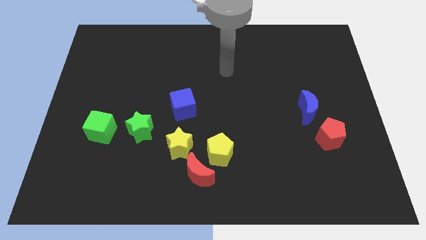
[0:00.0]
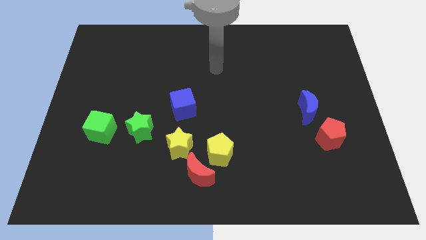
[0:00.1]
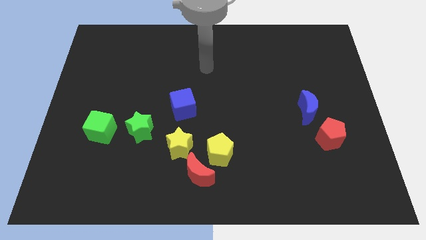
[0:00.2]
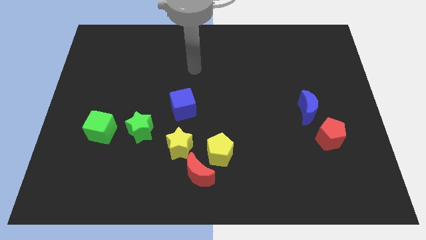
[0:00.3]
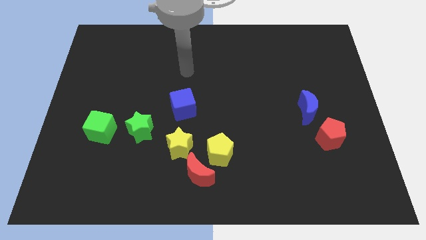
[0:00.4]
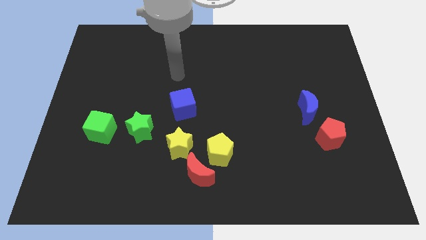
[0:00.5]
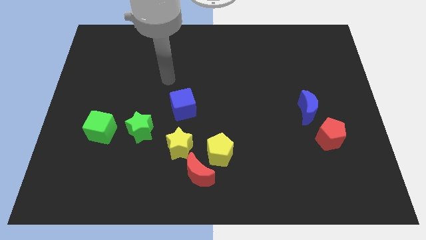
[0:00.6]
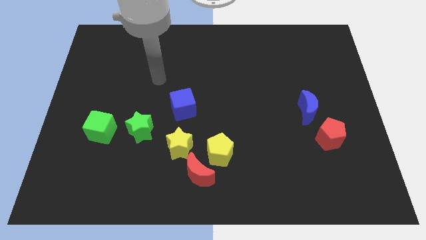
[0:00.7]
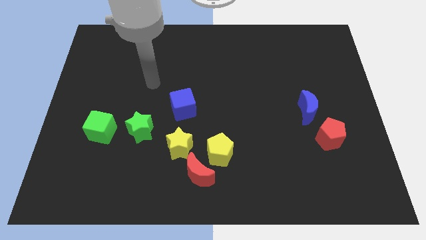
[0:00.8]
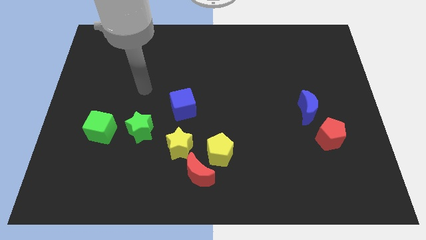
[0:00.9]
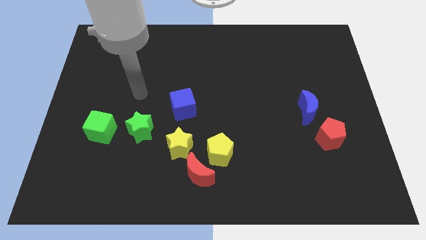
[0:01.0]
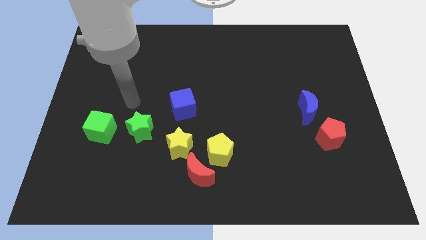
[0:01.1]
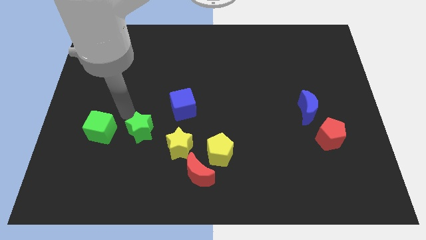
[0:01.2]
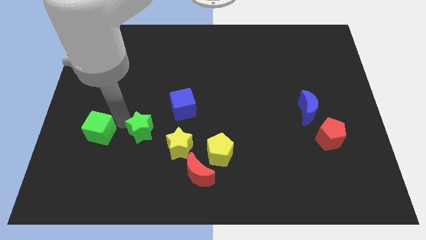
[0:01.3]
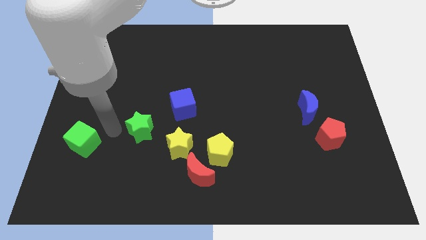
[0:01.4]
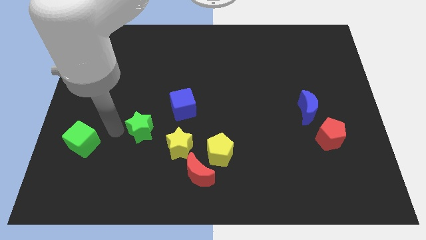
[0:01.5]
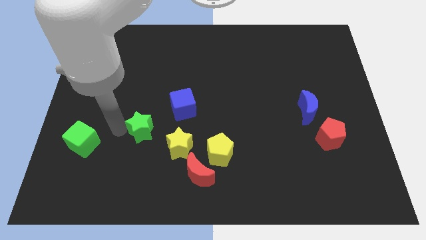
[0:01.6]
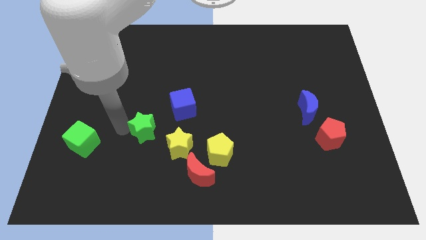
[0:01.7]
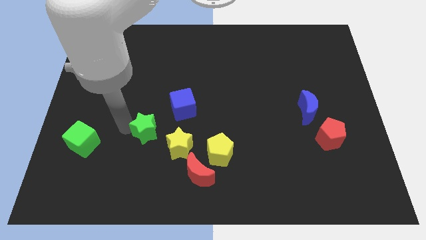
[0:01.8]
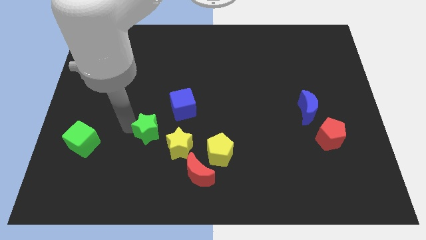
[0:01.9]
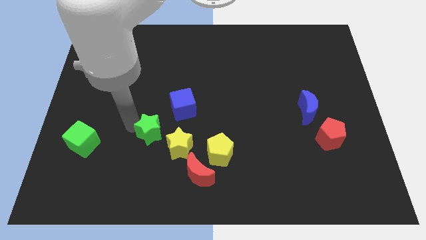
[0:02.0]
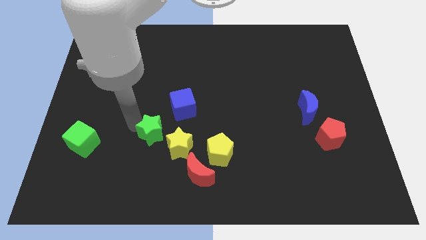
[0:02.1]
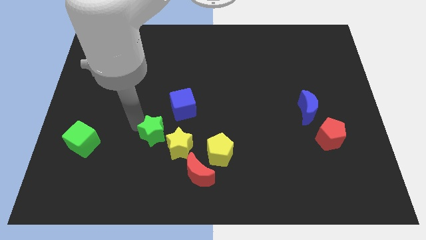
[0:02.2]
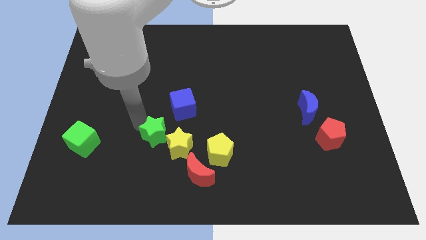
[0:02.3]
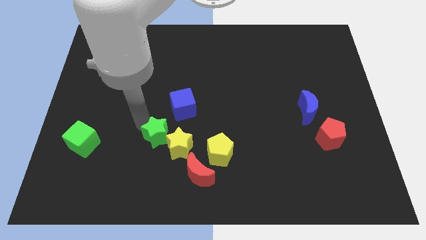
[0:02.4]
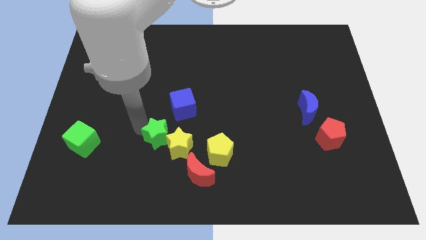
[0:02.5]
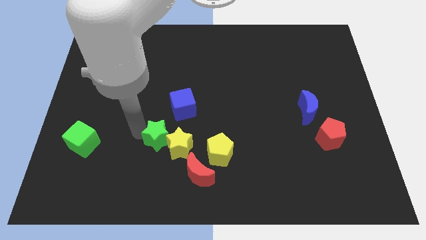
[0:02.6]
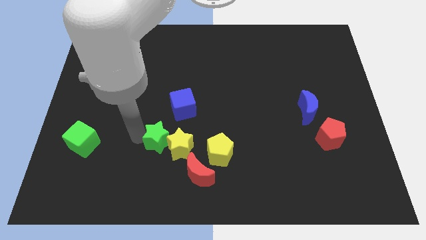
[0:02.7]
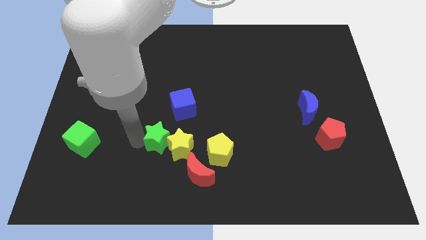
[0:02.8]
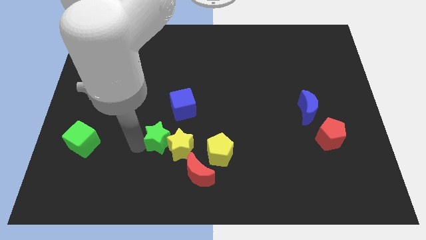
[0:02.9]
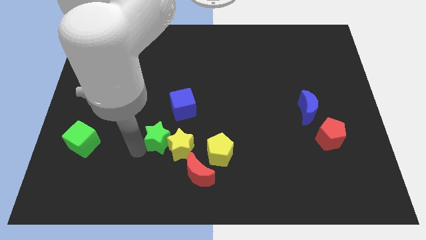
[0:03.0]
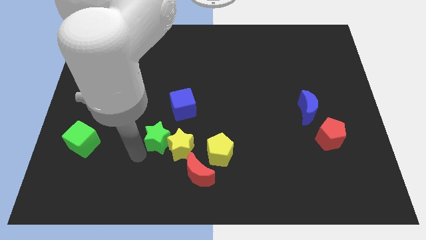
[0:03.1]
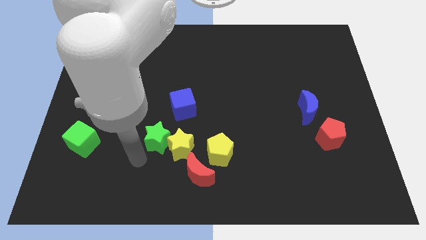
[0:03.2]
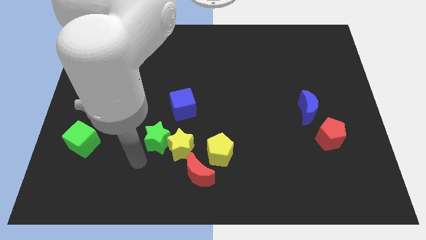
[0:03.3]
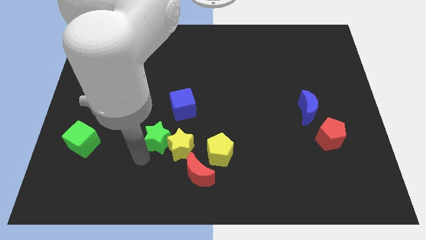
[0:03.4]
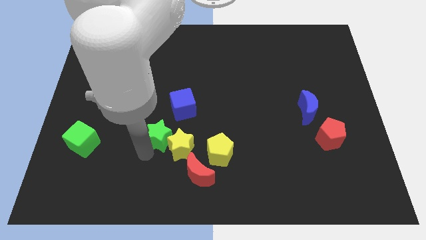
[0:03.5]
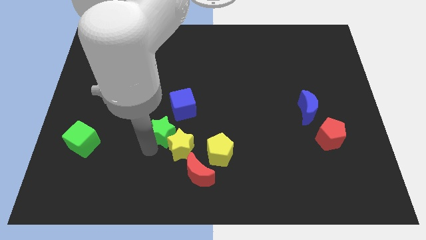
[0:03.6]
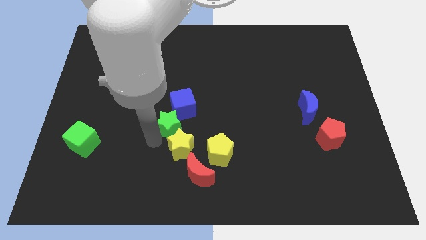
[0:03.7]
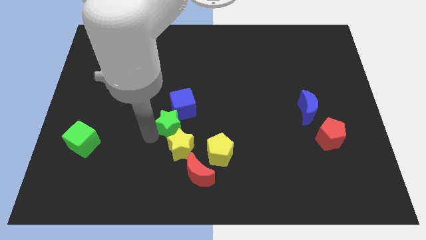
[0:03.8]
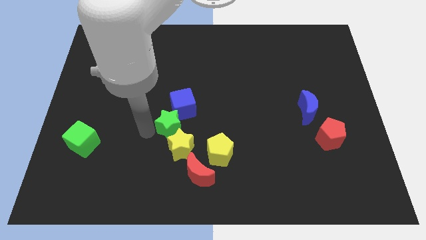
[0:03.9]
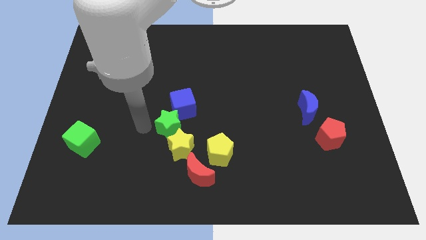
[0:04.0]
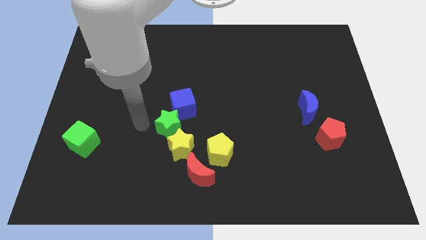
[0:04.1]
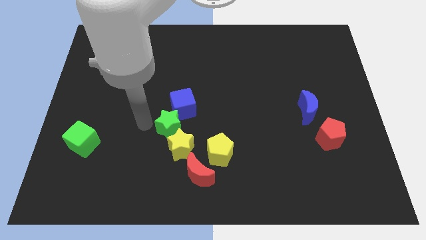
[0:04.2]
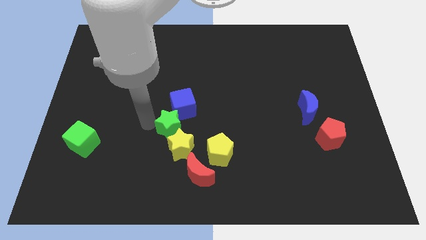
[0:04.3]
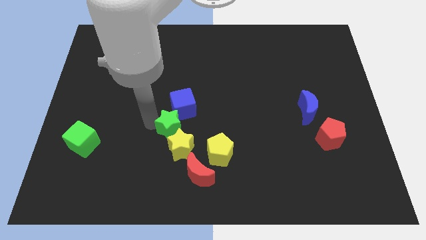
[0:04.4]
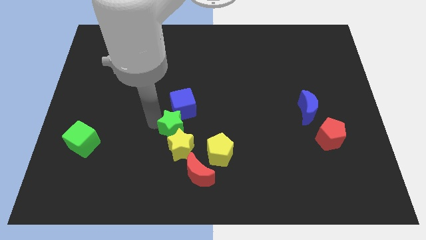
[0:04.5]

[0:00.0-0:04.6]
slide the green star slightly right

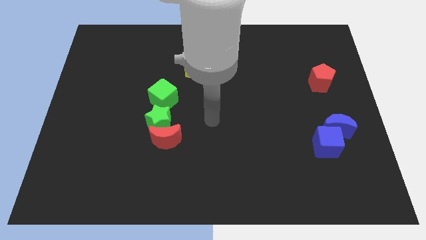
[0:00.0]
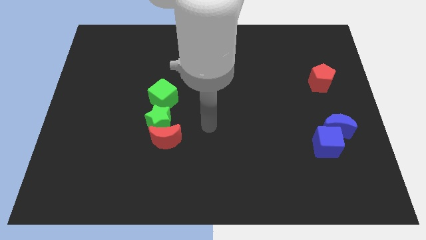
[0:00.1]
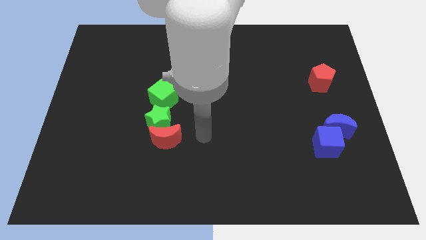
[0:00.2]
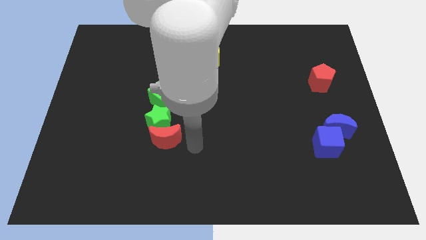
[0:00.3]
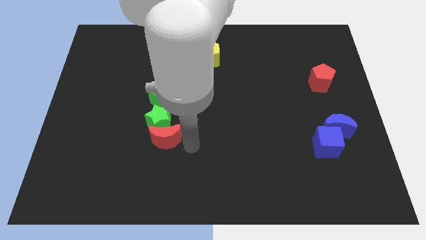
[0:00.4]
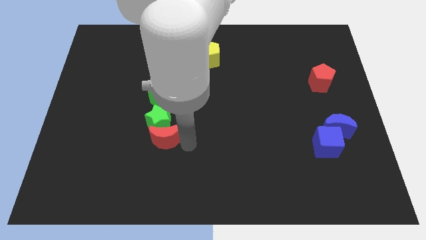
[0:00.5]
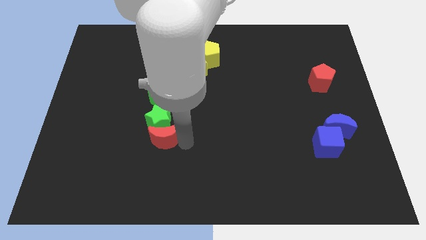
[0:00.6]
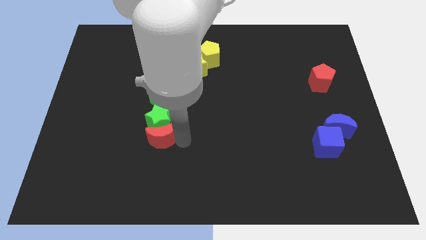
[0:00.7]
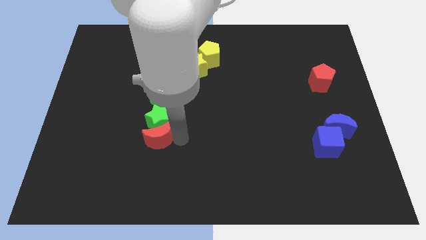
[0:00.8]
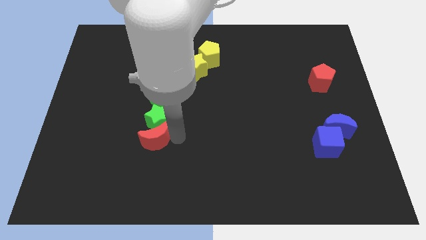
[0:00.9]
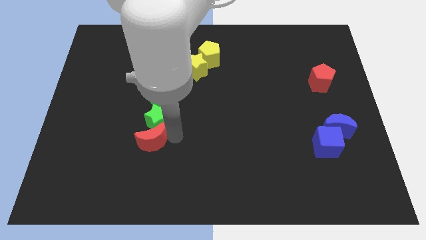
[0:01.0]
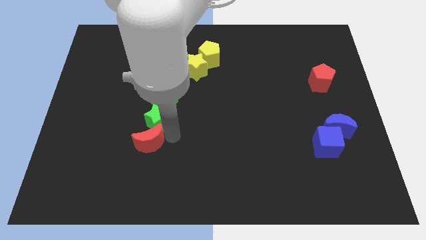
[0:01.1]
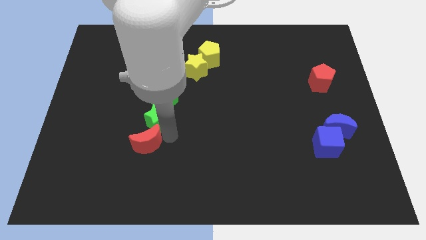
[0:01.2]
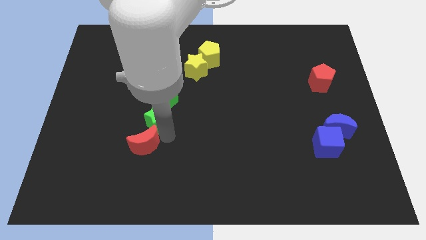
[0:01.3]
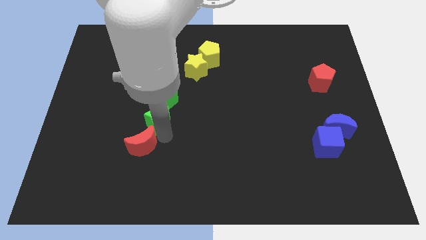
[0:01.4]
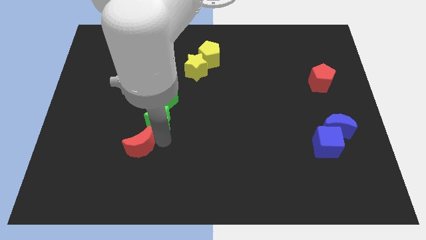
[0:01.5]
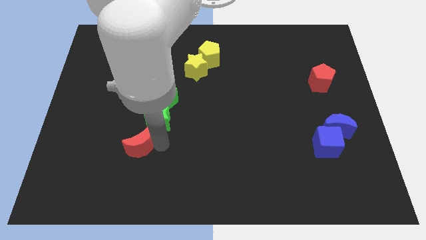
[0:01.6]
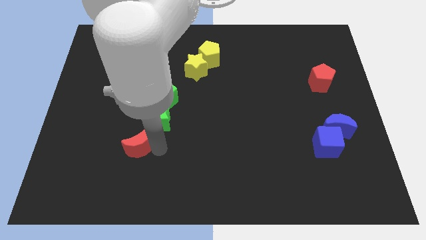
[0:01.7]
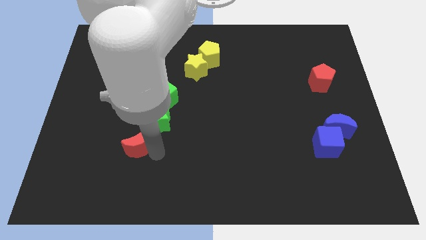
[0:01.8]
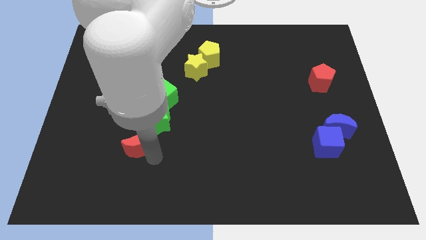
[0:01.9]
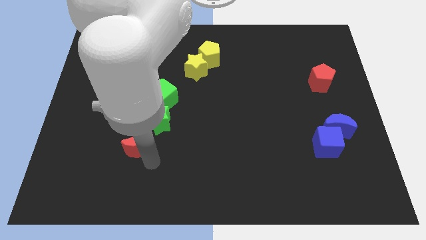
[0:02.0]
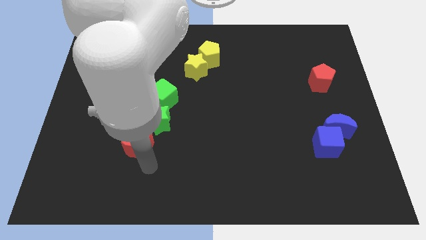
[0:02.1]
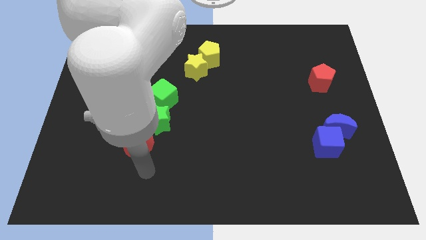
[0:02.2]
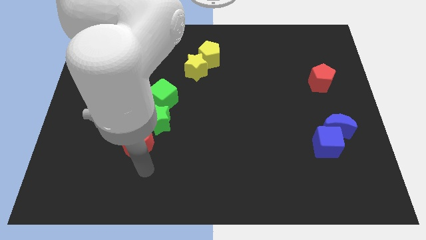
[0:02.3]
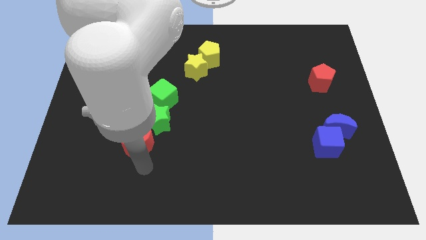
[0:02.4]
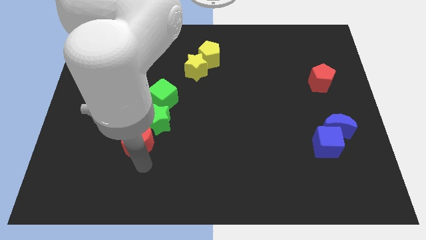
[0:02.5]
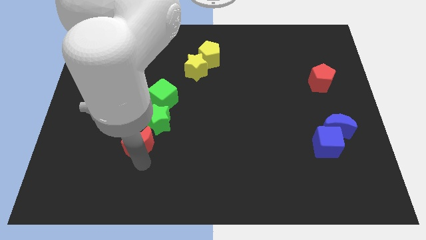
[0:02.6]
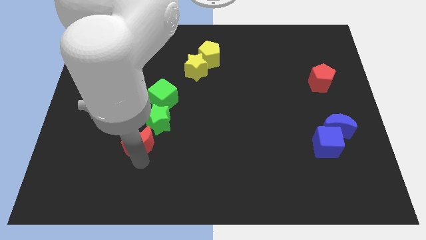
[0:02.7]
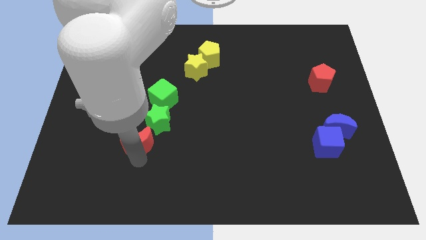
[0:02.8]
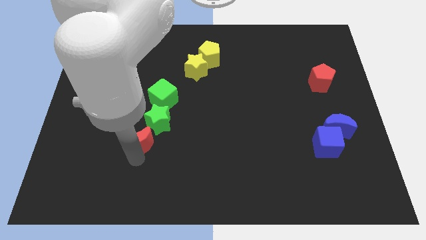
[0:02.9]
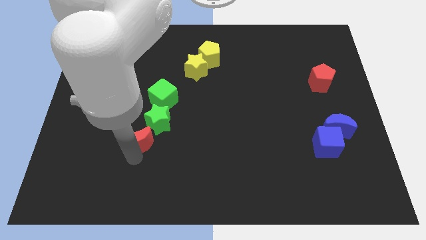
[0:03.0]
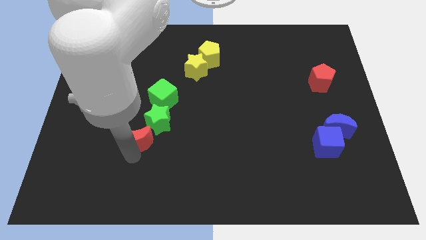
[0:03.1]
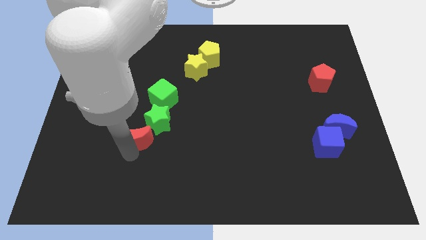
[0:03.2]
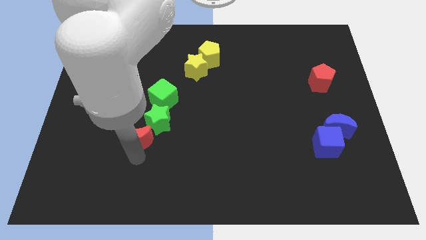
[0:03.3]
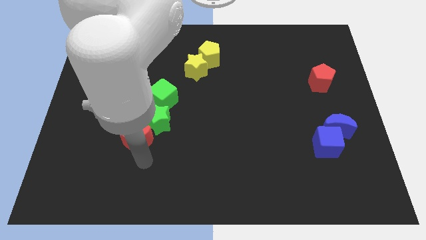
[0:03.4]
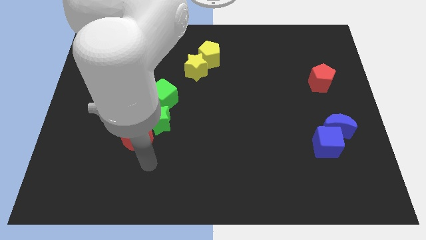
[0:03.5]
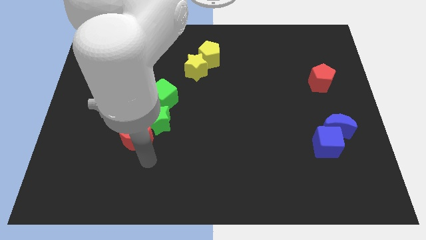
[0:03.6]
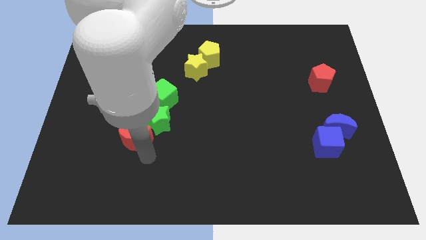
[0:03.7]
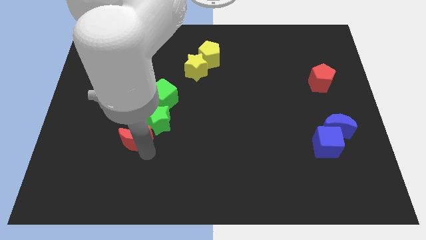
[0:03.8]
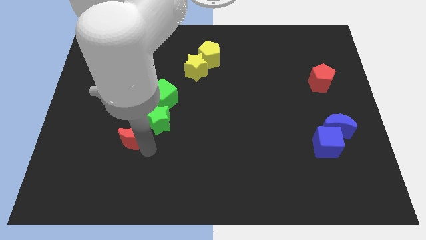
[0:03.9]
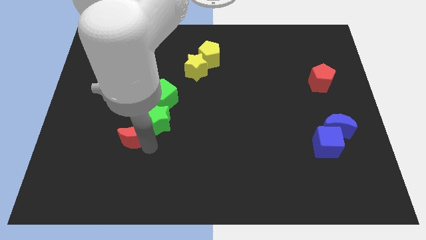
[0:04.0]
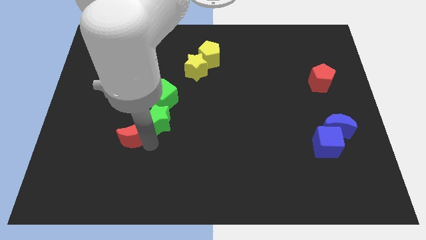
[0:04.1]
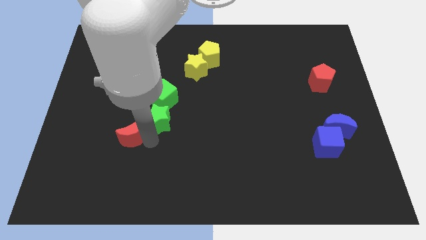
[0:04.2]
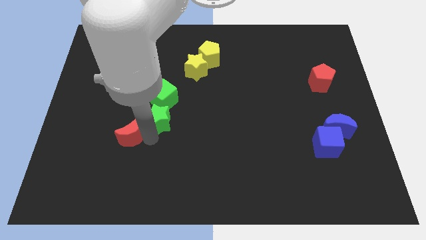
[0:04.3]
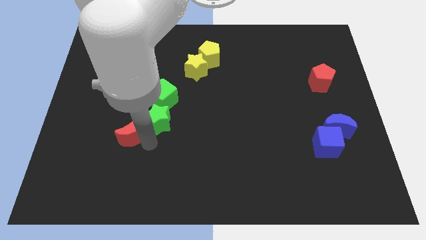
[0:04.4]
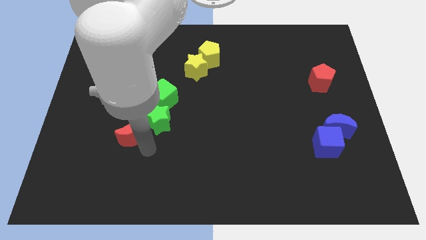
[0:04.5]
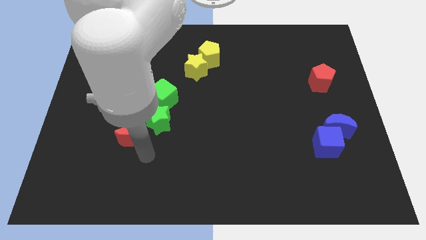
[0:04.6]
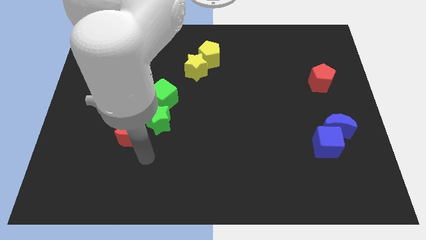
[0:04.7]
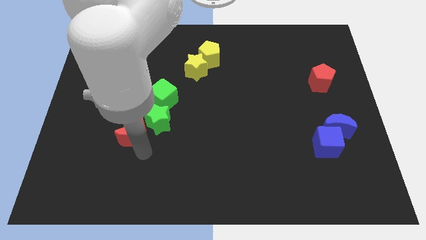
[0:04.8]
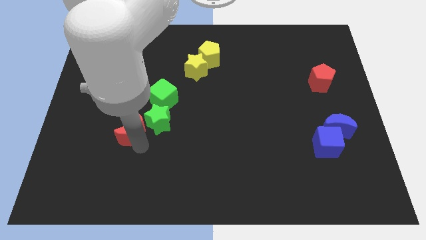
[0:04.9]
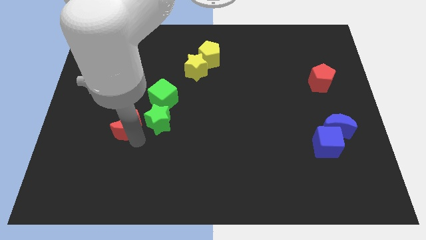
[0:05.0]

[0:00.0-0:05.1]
slightly push the red moon up and left
